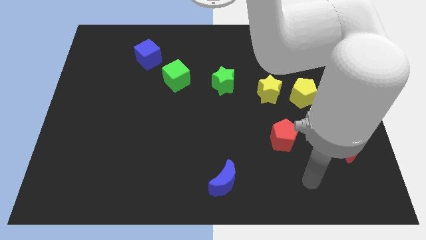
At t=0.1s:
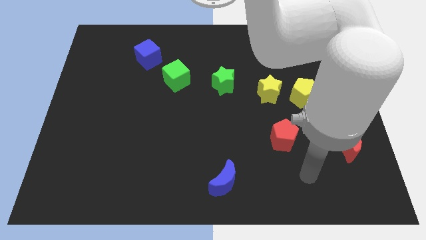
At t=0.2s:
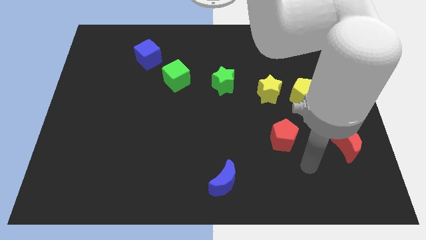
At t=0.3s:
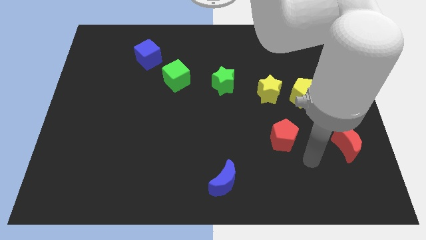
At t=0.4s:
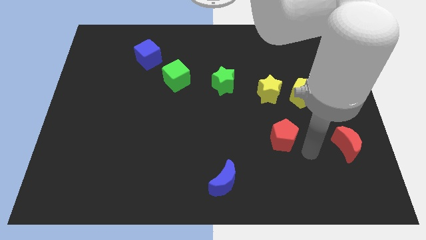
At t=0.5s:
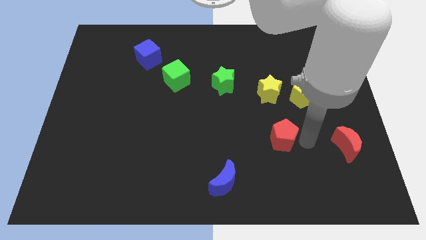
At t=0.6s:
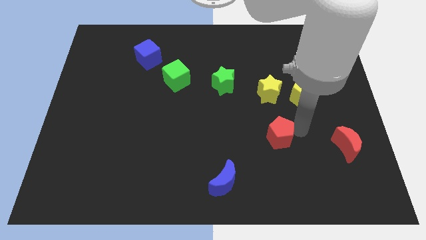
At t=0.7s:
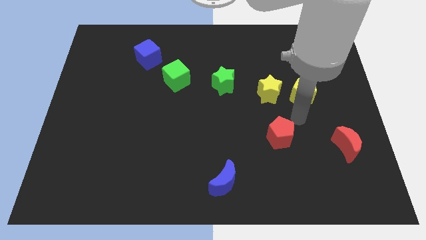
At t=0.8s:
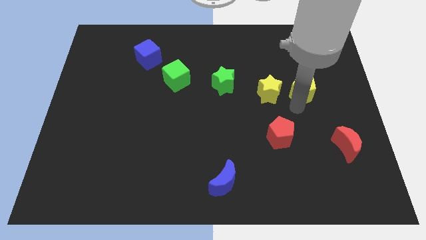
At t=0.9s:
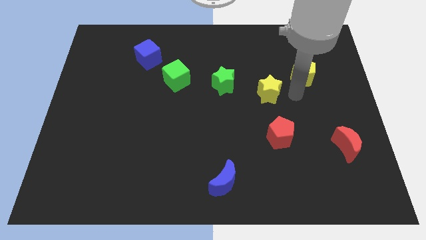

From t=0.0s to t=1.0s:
pull the yellow star apart from the yellow pentagon

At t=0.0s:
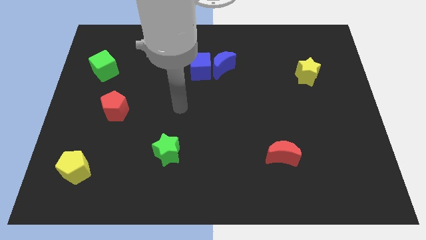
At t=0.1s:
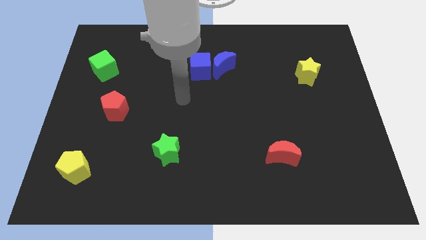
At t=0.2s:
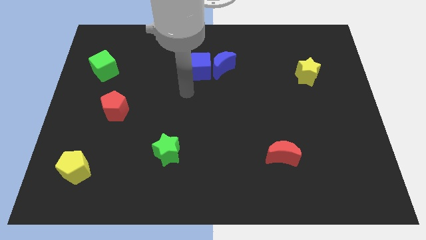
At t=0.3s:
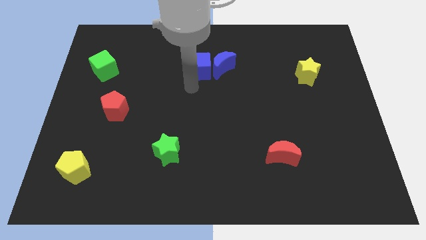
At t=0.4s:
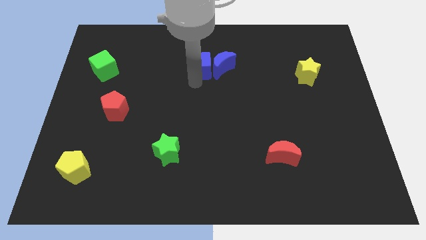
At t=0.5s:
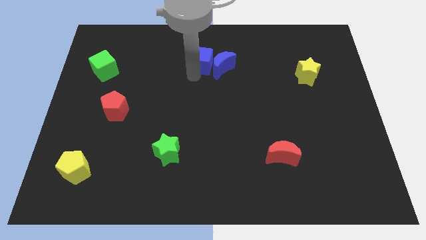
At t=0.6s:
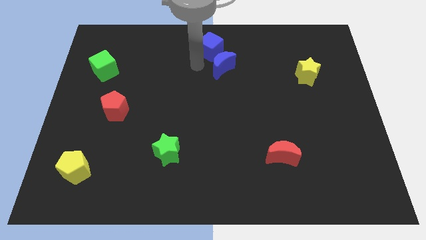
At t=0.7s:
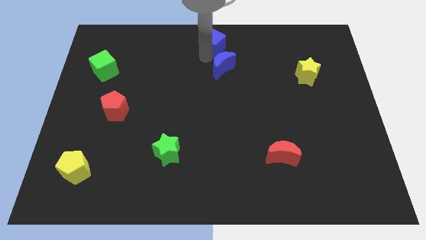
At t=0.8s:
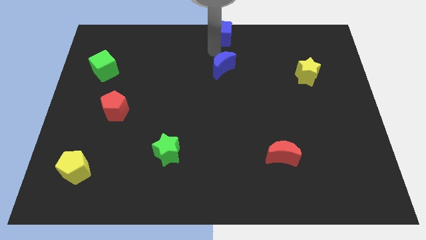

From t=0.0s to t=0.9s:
move the blue moon away from the blue cube

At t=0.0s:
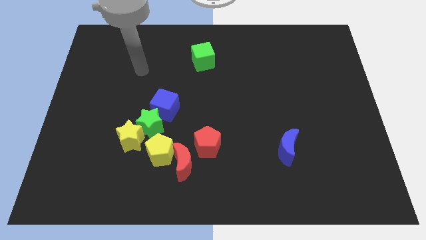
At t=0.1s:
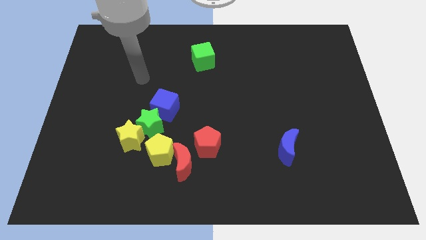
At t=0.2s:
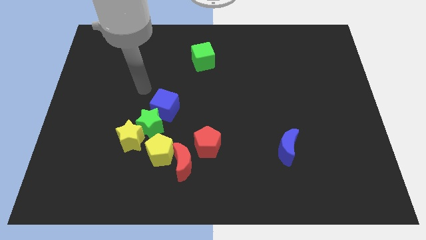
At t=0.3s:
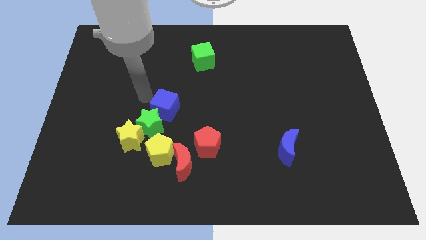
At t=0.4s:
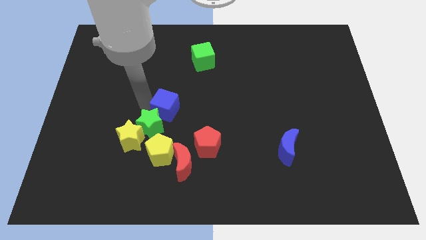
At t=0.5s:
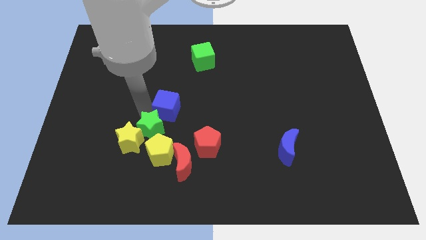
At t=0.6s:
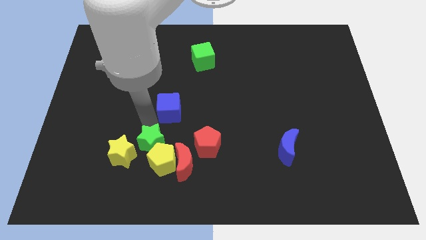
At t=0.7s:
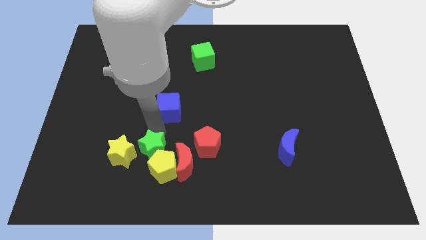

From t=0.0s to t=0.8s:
pull the blue cube apart from the green star

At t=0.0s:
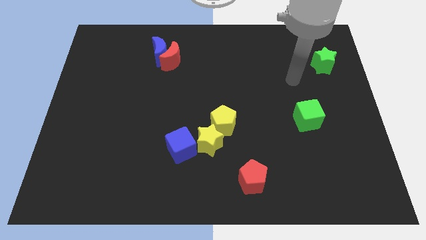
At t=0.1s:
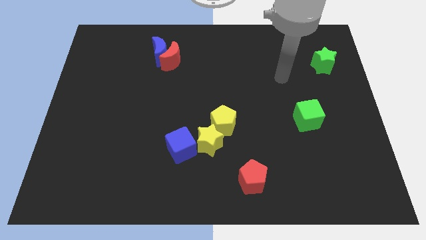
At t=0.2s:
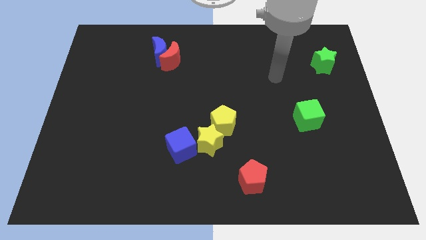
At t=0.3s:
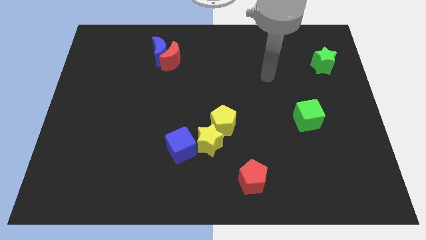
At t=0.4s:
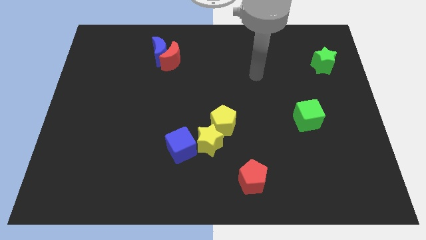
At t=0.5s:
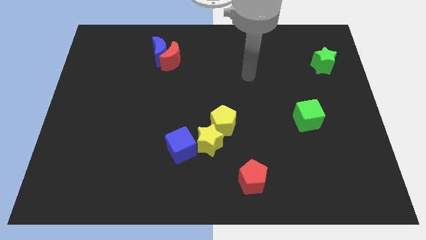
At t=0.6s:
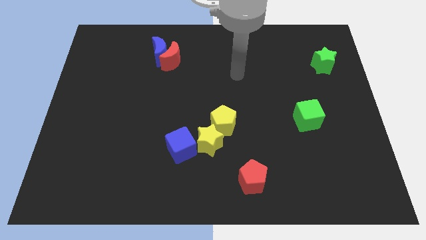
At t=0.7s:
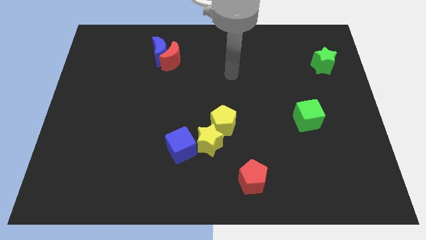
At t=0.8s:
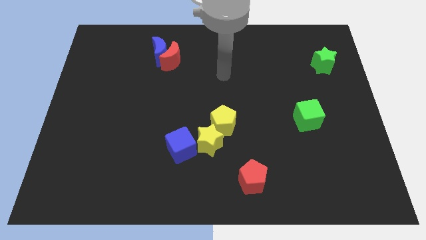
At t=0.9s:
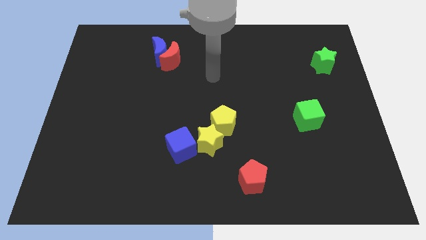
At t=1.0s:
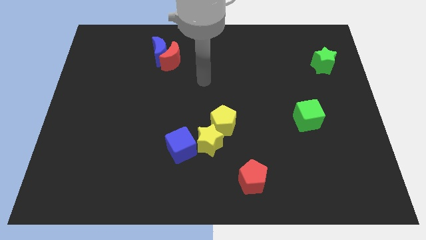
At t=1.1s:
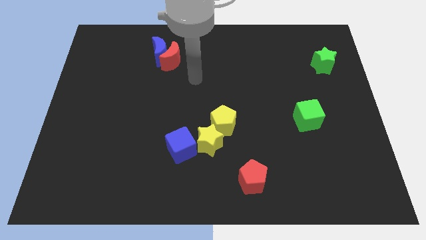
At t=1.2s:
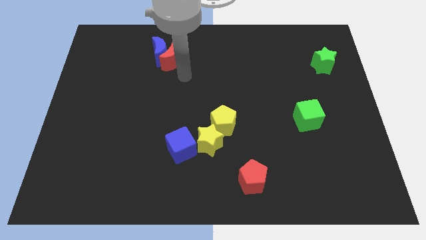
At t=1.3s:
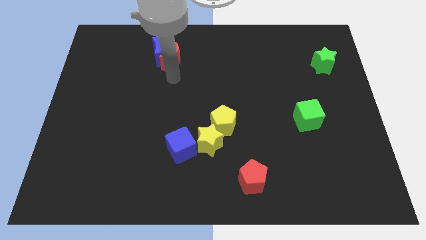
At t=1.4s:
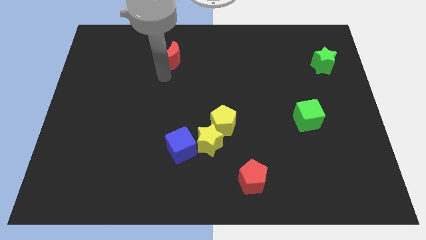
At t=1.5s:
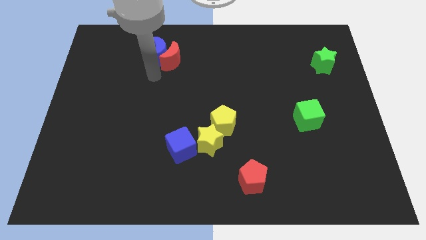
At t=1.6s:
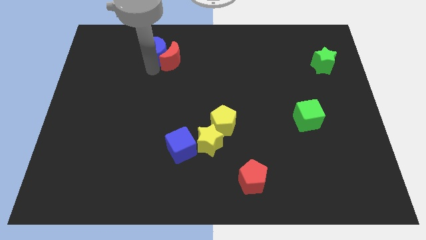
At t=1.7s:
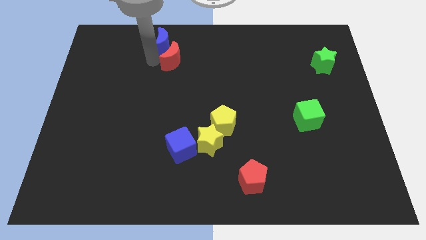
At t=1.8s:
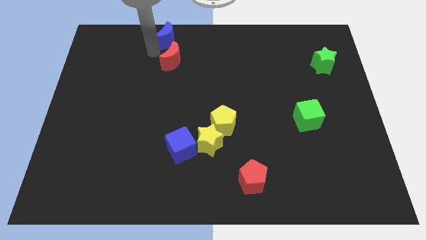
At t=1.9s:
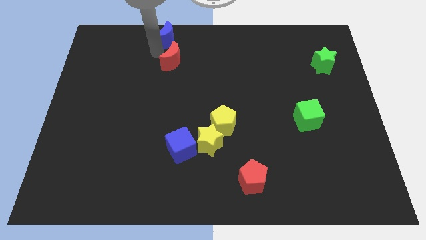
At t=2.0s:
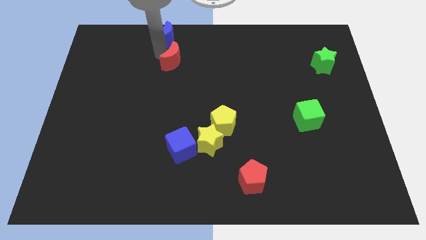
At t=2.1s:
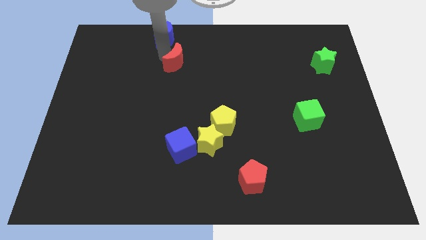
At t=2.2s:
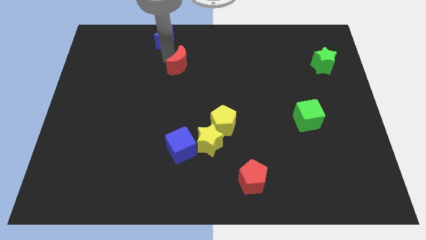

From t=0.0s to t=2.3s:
pull the red moon apart from the blue moon

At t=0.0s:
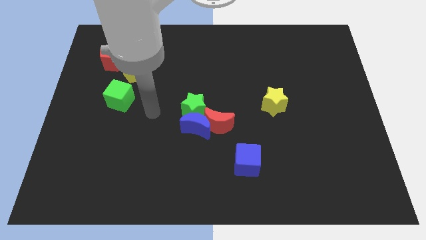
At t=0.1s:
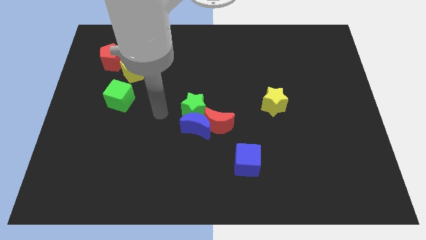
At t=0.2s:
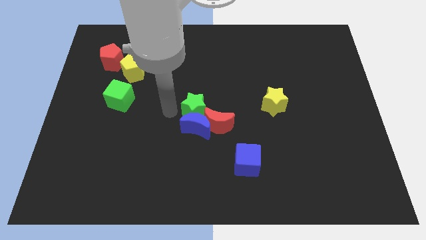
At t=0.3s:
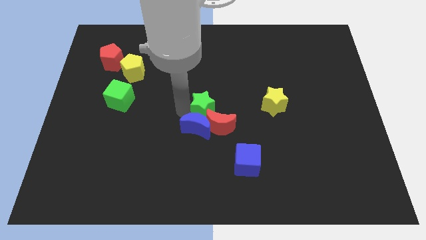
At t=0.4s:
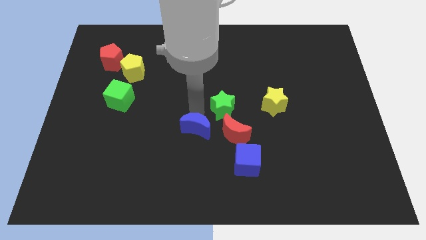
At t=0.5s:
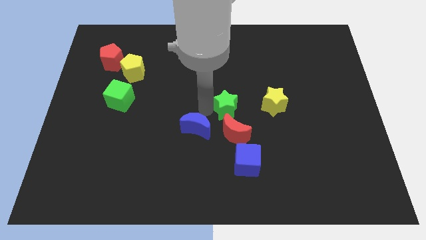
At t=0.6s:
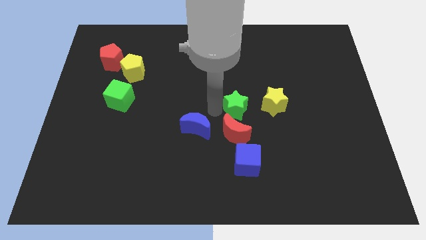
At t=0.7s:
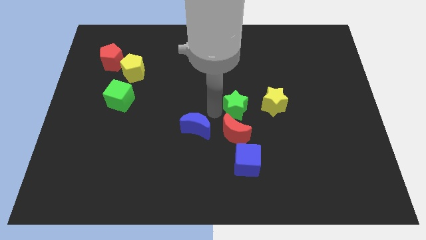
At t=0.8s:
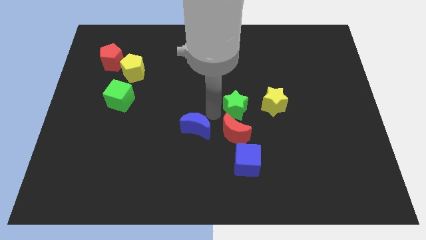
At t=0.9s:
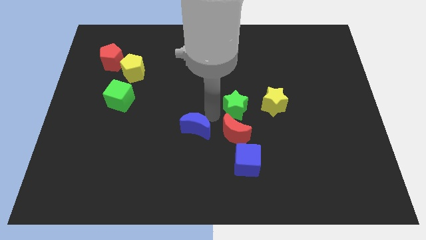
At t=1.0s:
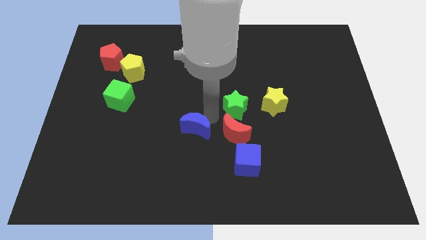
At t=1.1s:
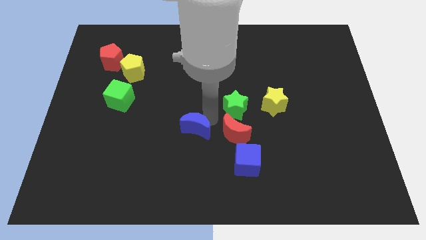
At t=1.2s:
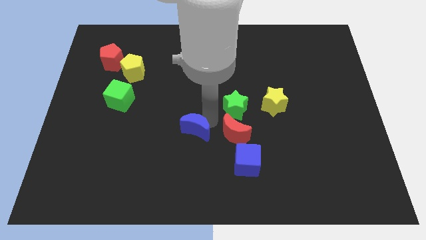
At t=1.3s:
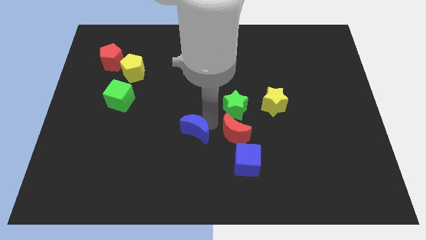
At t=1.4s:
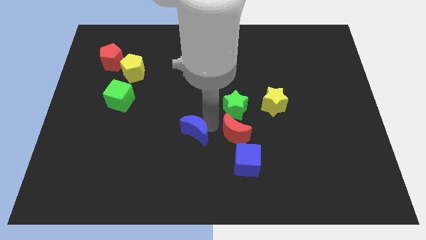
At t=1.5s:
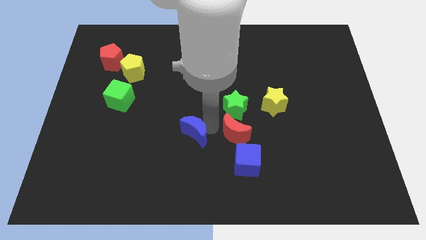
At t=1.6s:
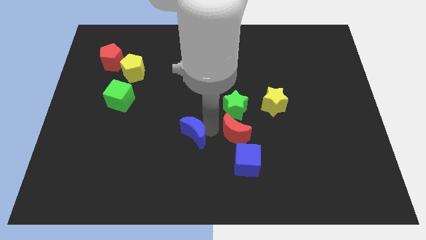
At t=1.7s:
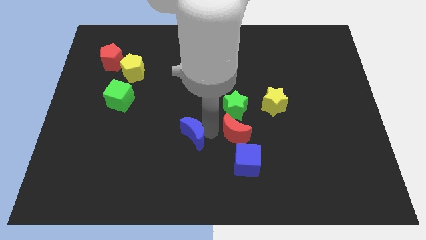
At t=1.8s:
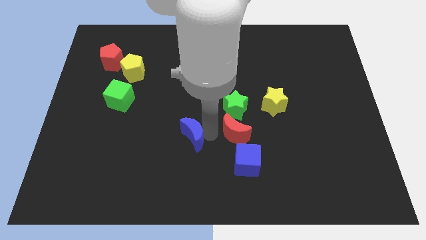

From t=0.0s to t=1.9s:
pull the blue moon apart from the green star and red moon

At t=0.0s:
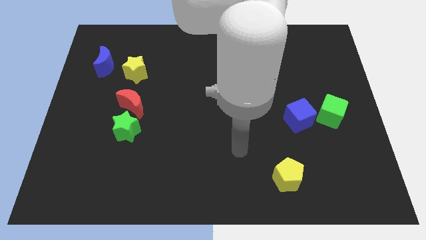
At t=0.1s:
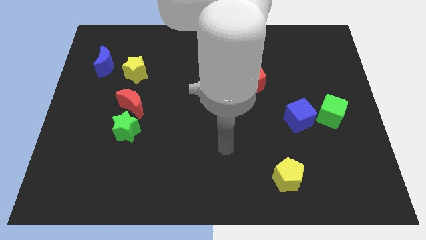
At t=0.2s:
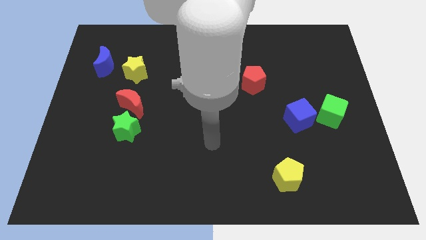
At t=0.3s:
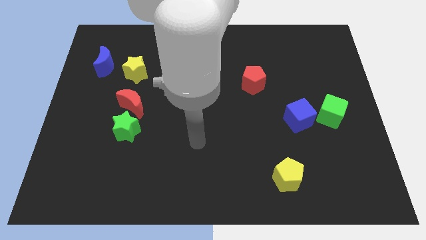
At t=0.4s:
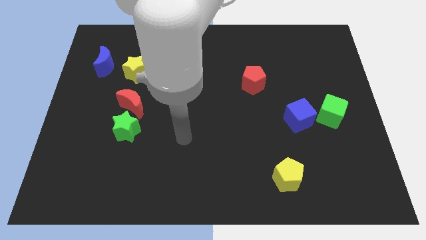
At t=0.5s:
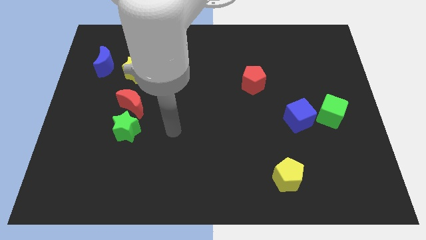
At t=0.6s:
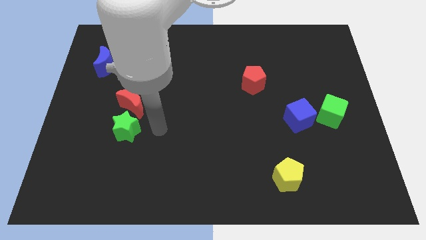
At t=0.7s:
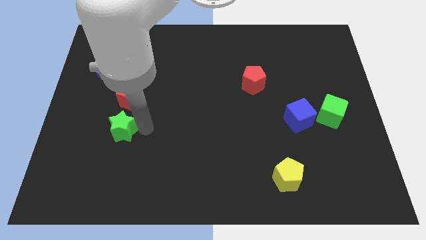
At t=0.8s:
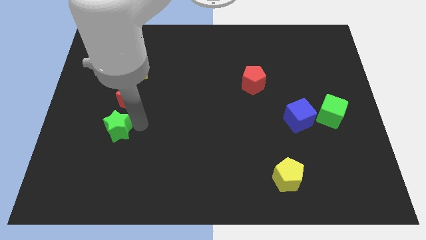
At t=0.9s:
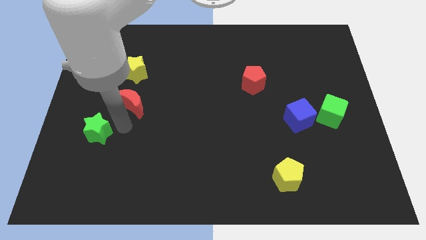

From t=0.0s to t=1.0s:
separate the red moon from the green star

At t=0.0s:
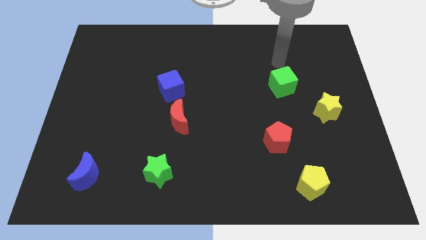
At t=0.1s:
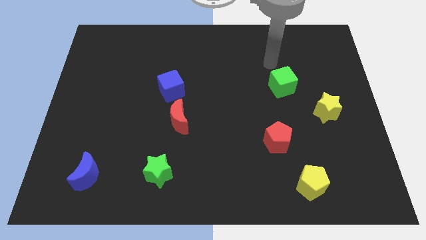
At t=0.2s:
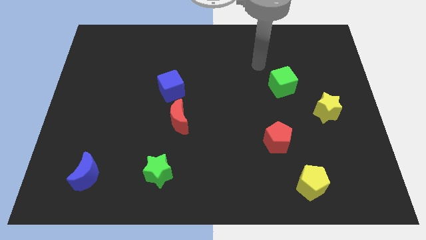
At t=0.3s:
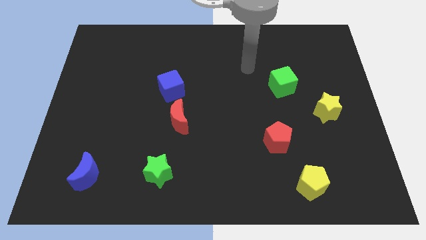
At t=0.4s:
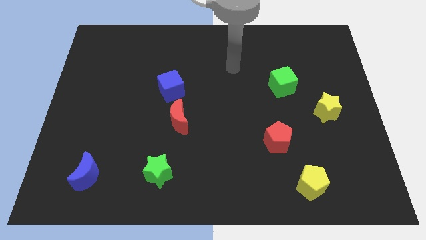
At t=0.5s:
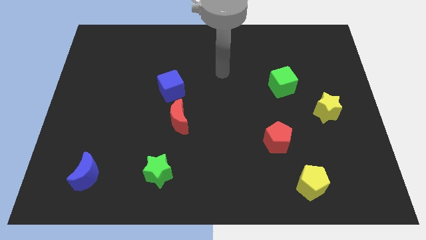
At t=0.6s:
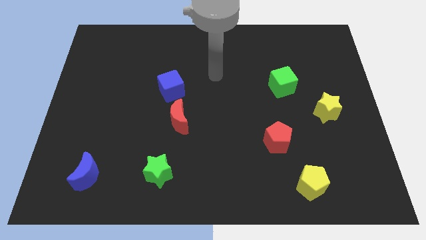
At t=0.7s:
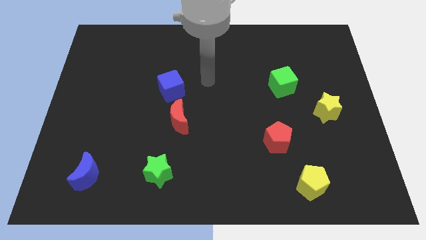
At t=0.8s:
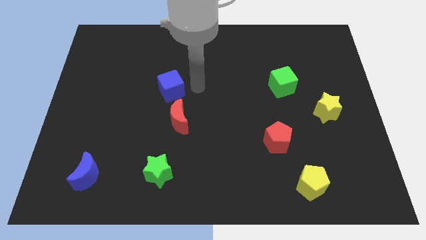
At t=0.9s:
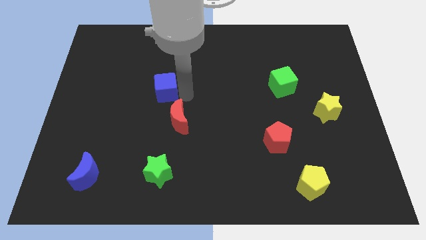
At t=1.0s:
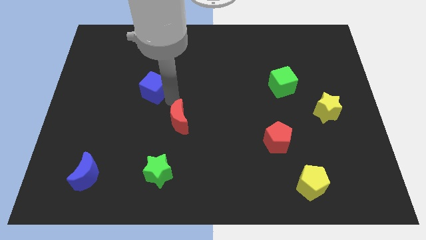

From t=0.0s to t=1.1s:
separate the red moon from the blue cube

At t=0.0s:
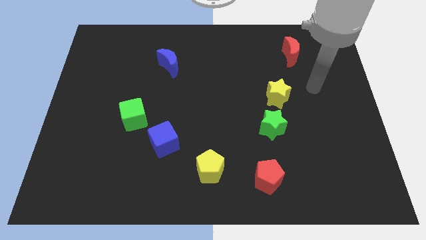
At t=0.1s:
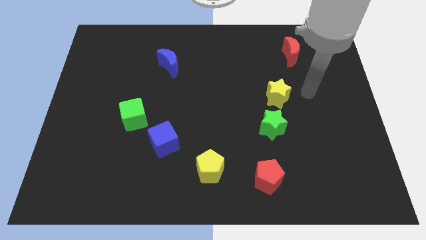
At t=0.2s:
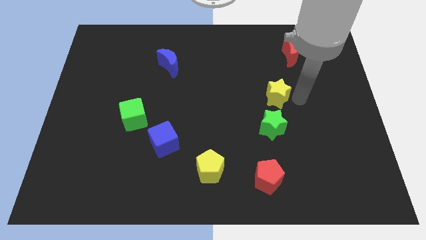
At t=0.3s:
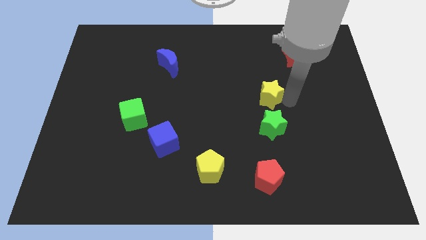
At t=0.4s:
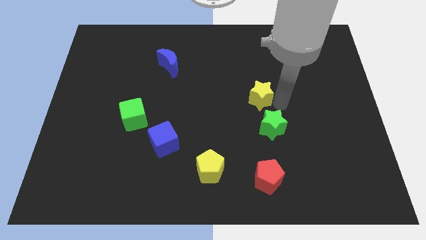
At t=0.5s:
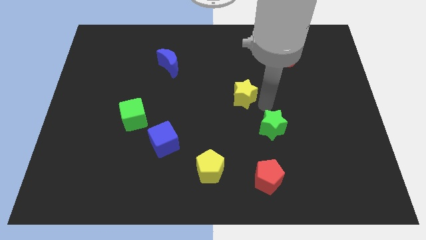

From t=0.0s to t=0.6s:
move the green star away from the yellow star
